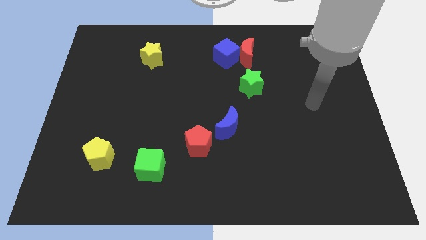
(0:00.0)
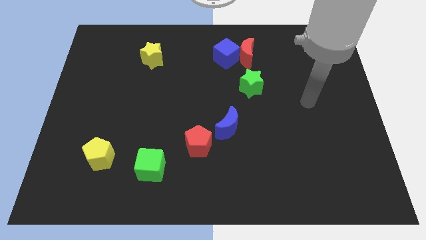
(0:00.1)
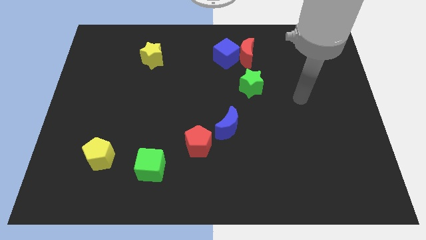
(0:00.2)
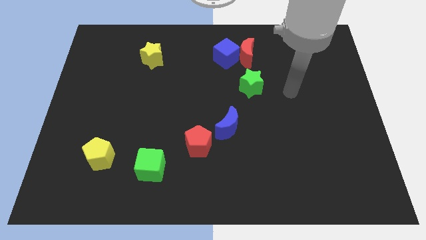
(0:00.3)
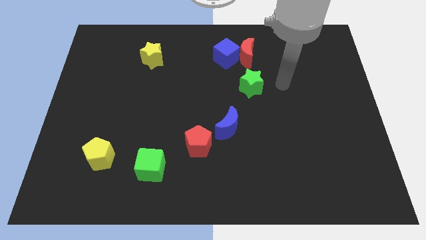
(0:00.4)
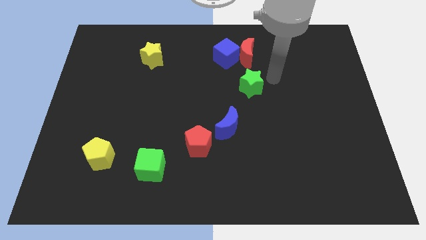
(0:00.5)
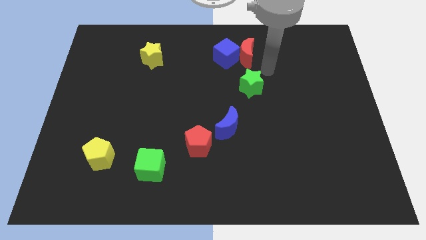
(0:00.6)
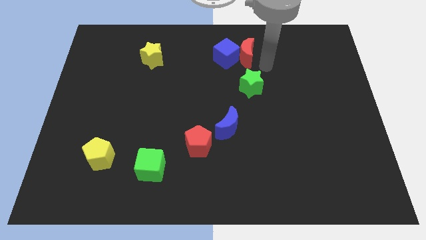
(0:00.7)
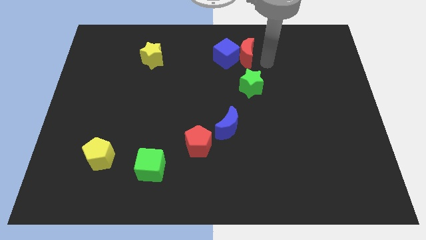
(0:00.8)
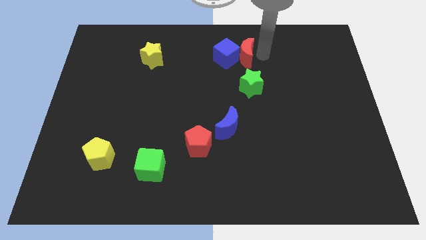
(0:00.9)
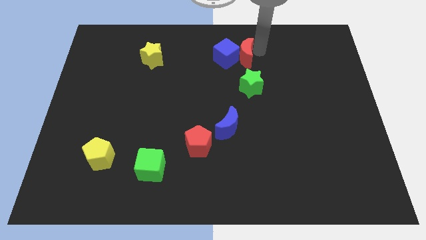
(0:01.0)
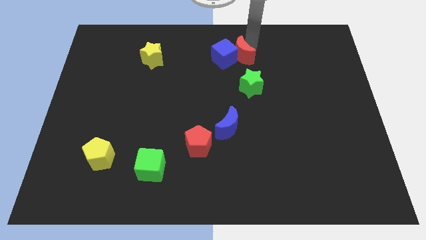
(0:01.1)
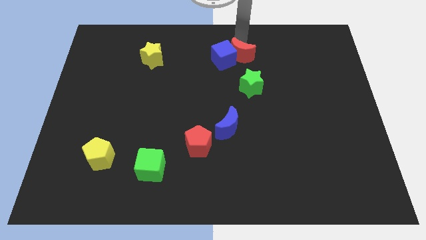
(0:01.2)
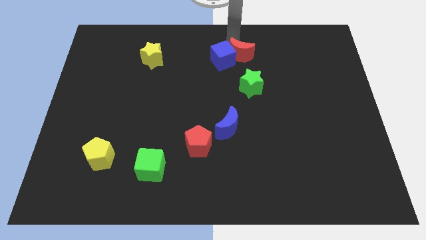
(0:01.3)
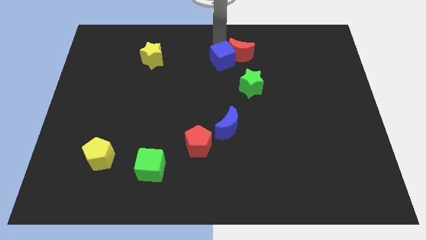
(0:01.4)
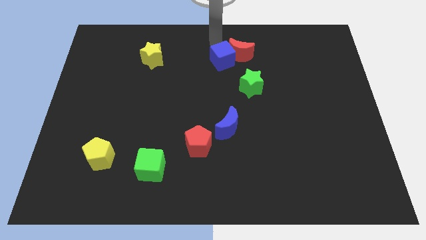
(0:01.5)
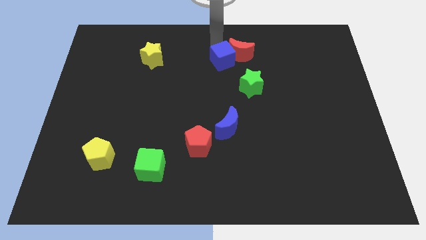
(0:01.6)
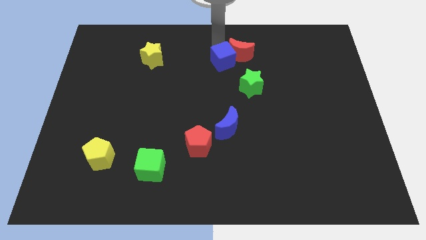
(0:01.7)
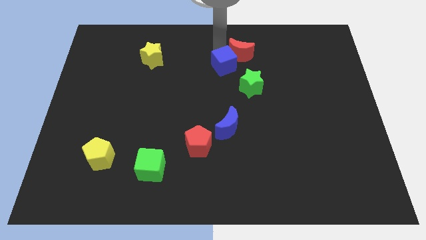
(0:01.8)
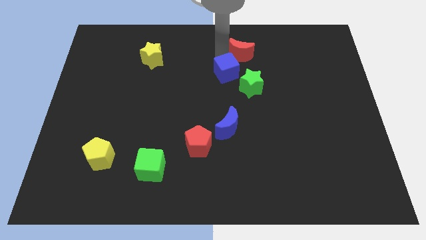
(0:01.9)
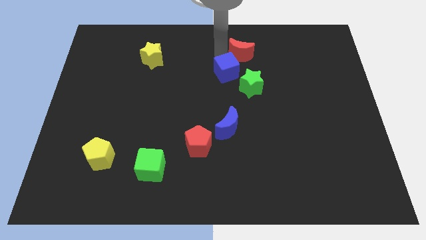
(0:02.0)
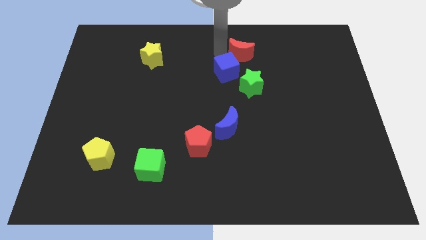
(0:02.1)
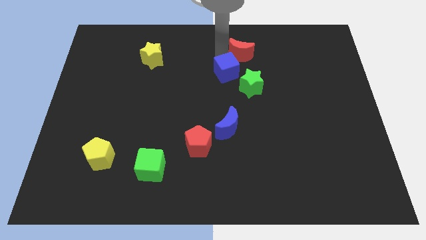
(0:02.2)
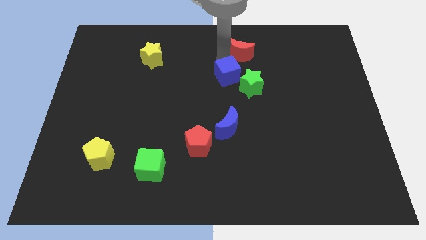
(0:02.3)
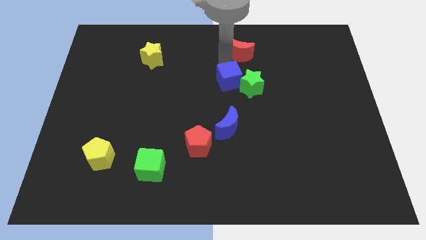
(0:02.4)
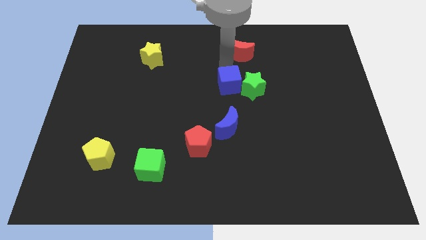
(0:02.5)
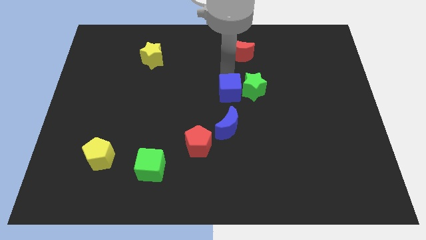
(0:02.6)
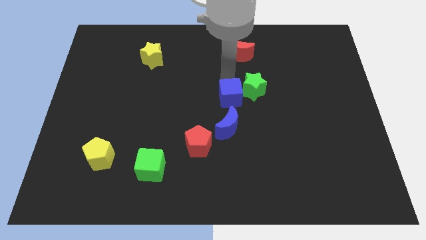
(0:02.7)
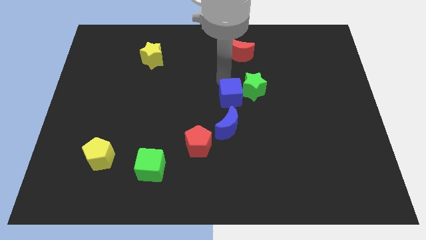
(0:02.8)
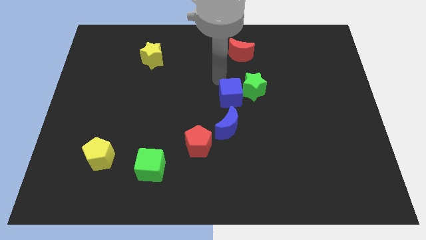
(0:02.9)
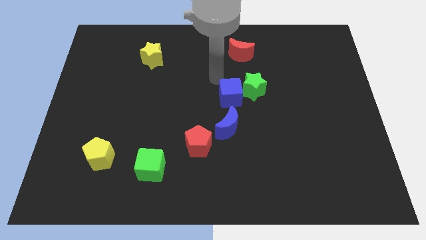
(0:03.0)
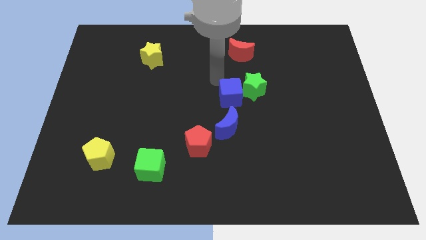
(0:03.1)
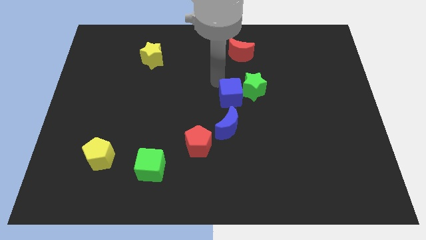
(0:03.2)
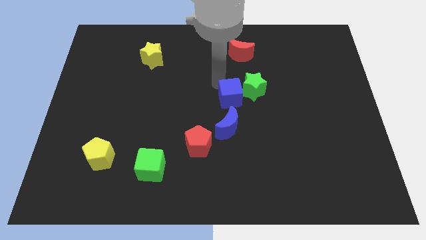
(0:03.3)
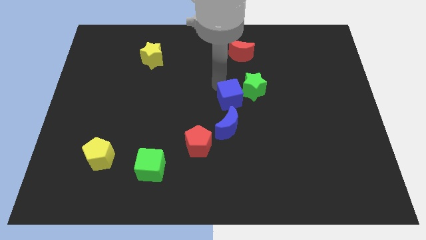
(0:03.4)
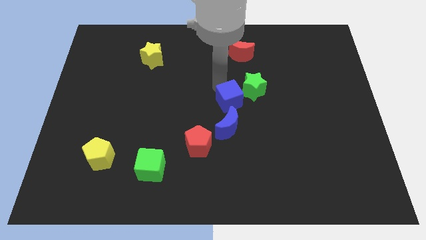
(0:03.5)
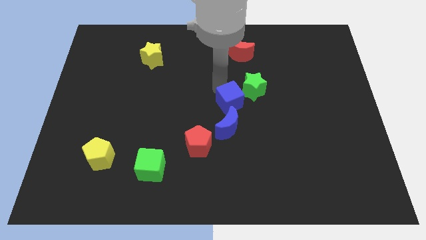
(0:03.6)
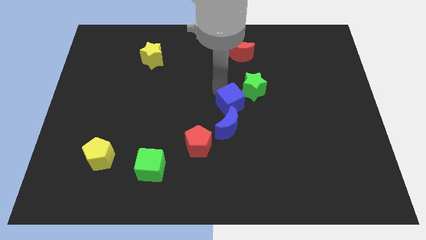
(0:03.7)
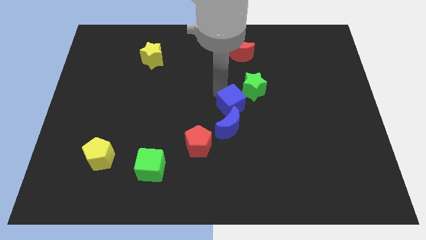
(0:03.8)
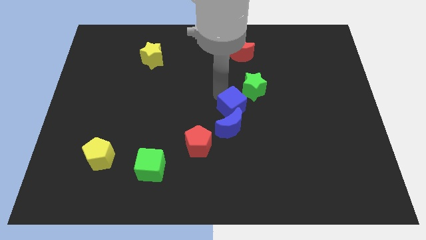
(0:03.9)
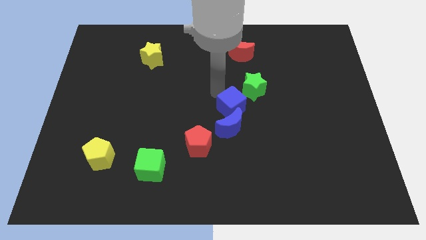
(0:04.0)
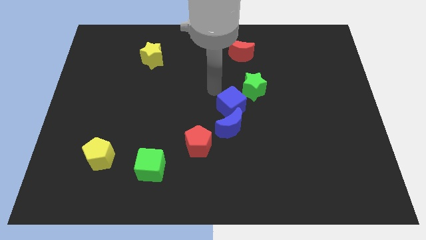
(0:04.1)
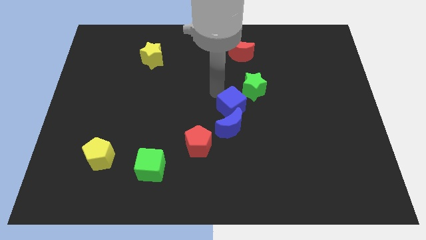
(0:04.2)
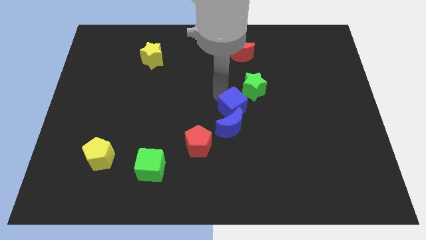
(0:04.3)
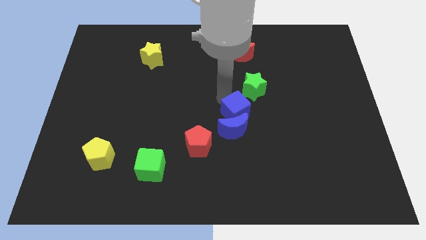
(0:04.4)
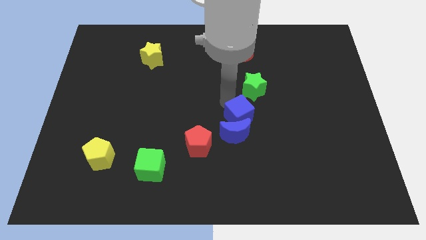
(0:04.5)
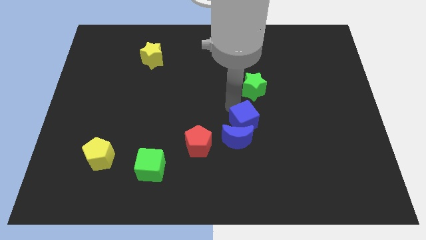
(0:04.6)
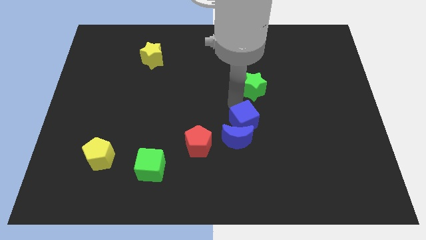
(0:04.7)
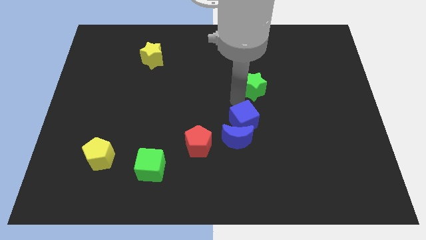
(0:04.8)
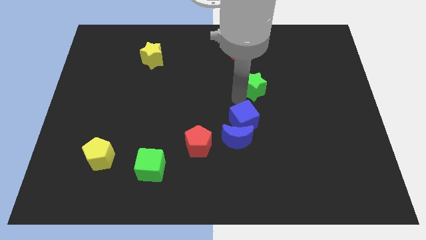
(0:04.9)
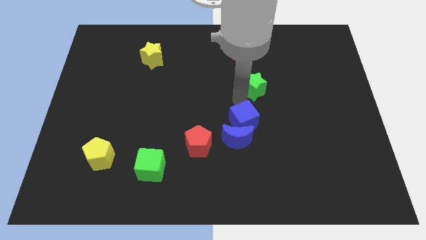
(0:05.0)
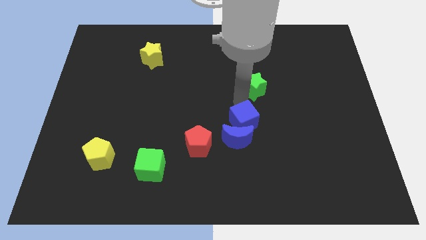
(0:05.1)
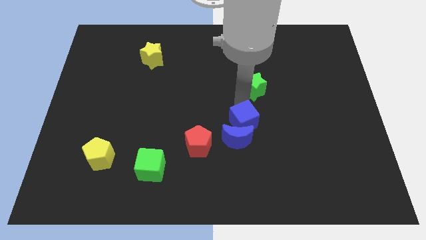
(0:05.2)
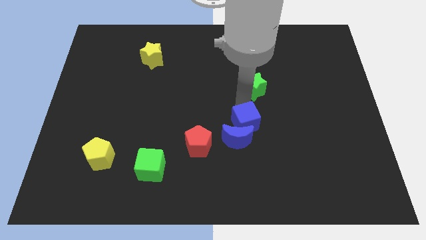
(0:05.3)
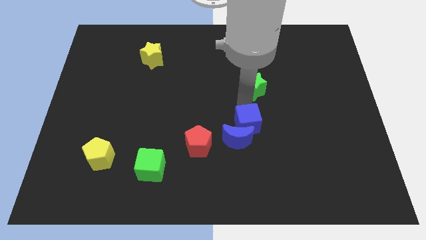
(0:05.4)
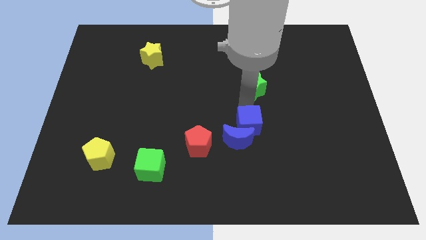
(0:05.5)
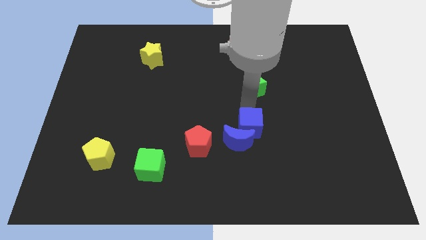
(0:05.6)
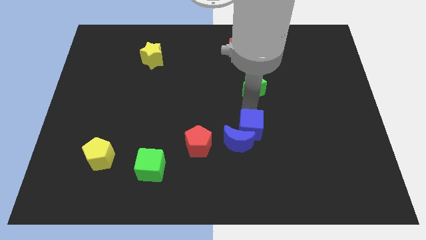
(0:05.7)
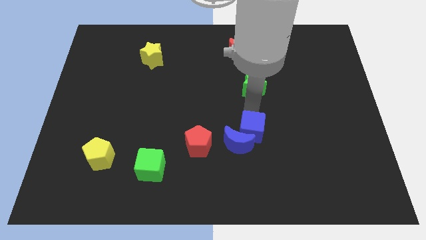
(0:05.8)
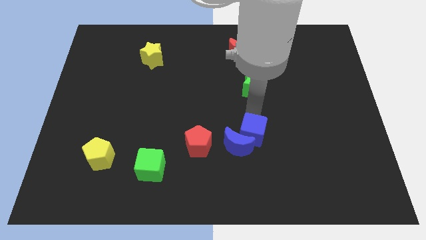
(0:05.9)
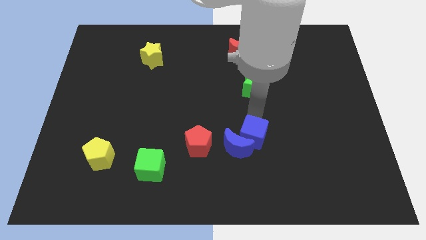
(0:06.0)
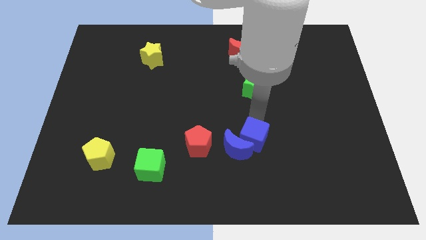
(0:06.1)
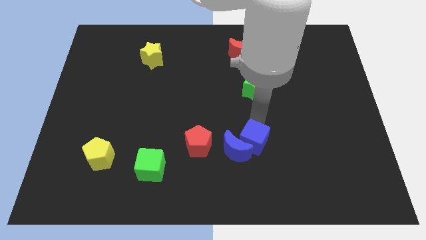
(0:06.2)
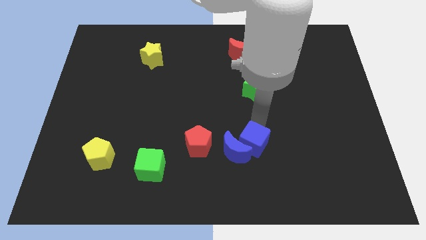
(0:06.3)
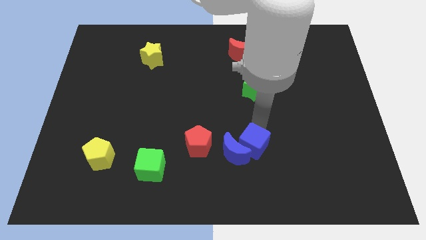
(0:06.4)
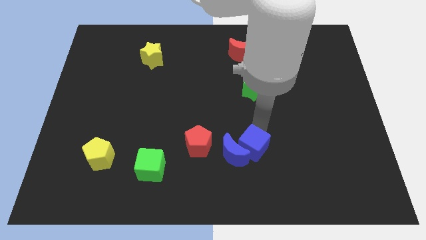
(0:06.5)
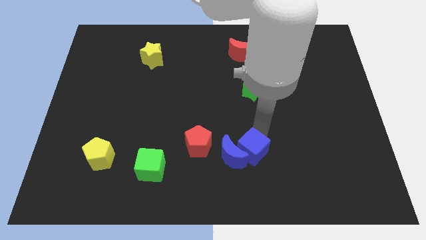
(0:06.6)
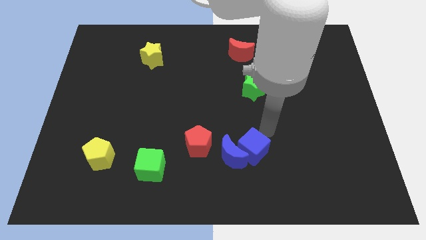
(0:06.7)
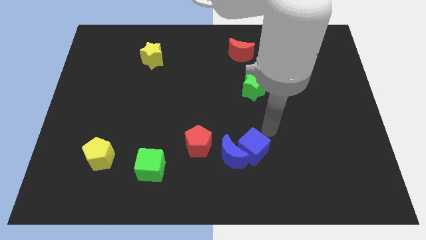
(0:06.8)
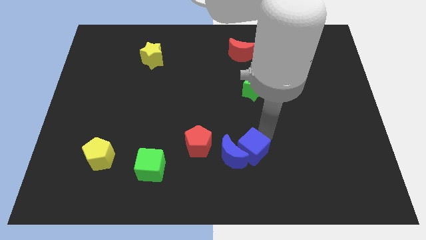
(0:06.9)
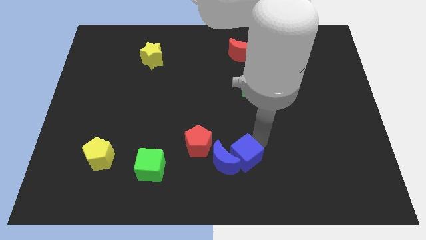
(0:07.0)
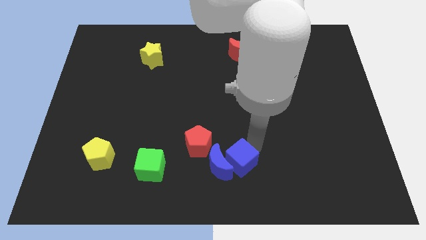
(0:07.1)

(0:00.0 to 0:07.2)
move the blue cube to the bottom side
